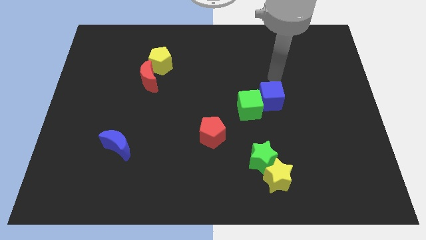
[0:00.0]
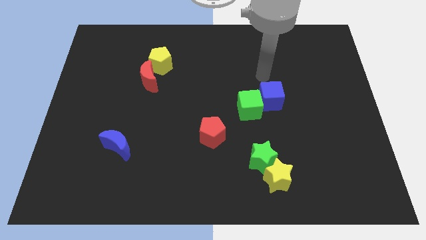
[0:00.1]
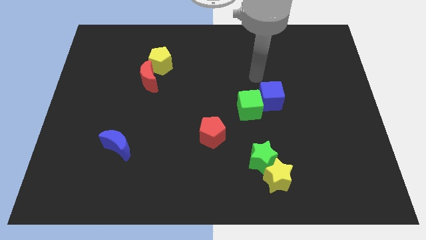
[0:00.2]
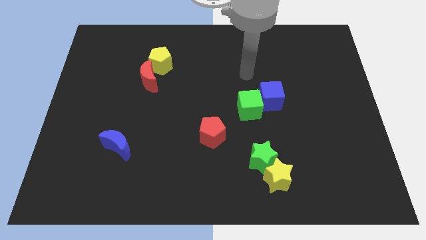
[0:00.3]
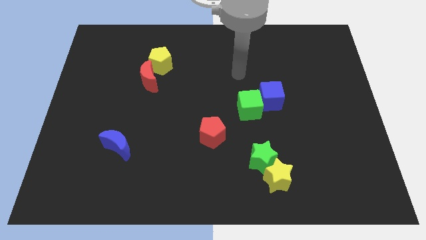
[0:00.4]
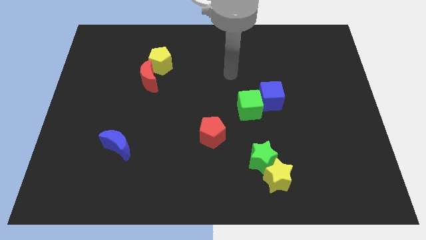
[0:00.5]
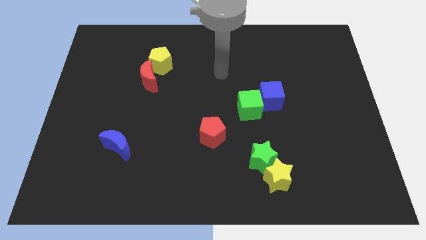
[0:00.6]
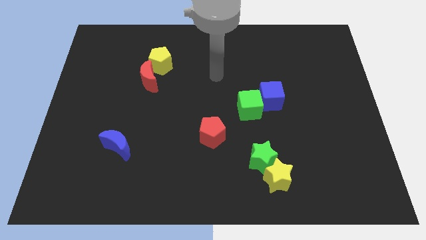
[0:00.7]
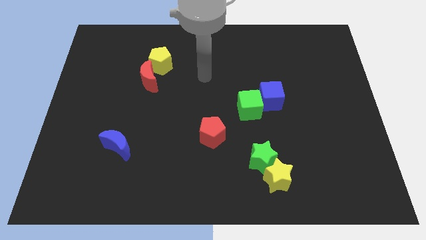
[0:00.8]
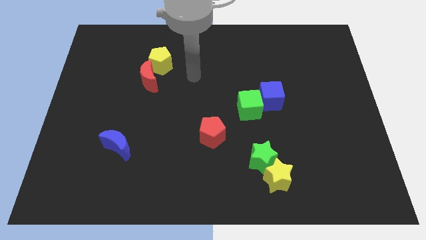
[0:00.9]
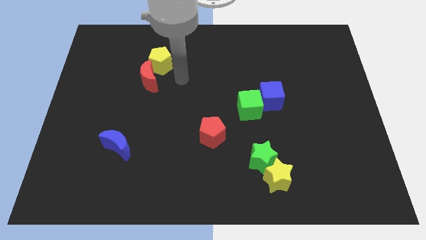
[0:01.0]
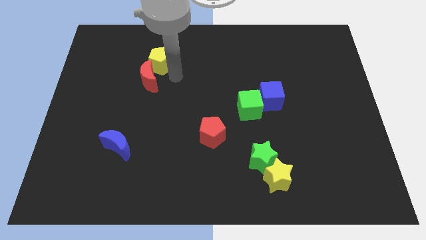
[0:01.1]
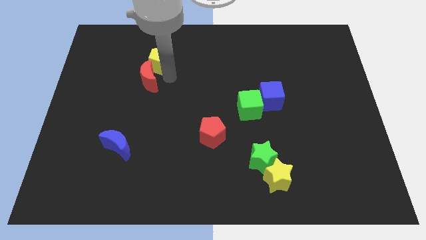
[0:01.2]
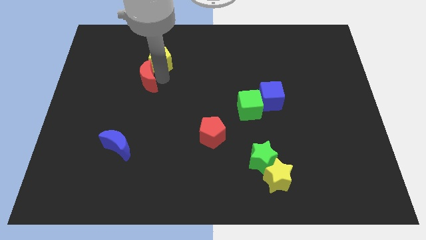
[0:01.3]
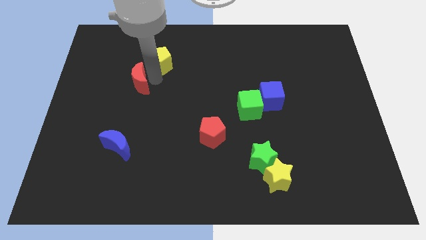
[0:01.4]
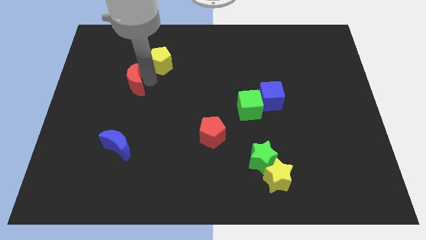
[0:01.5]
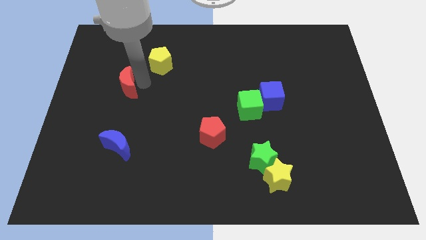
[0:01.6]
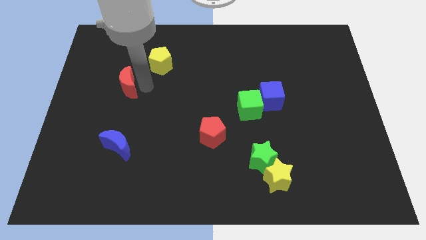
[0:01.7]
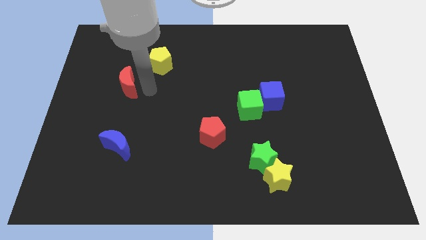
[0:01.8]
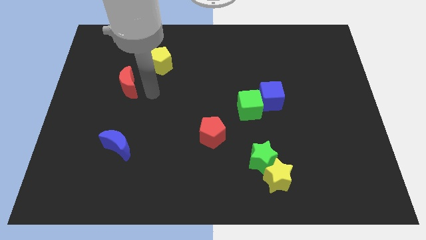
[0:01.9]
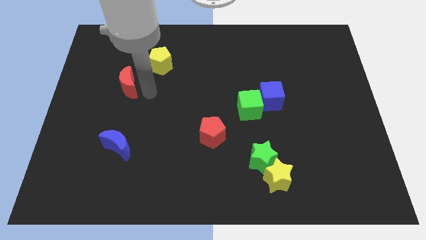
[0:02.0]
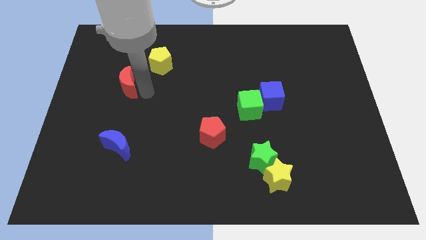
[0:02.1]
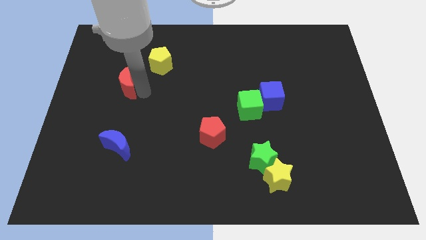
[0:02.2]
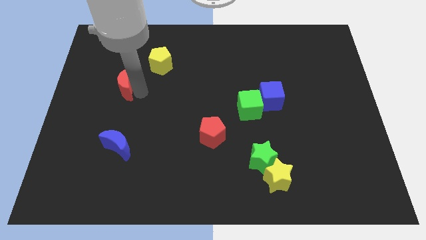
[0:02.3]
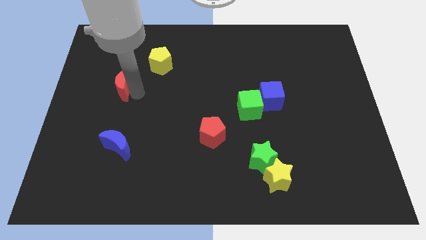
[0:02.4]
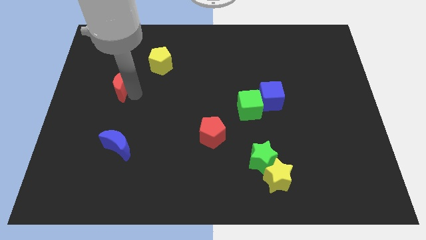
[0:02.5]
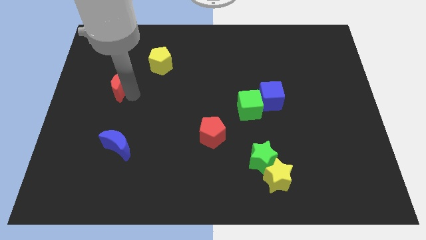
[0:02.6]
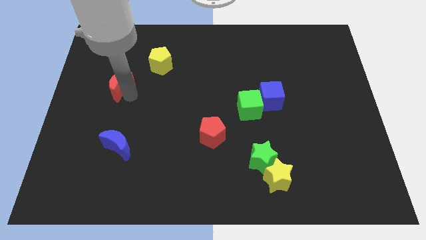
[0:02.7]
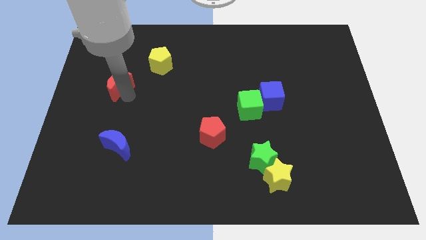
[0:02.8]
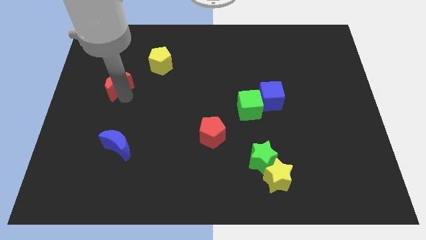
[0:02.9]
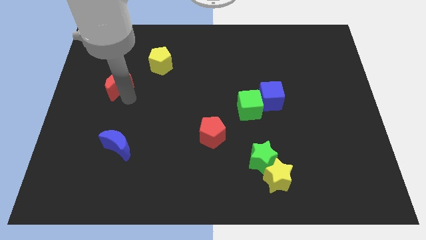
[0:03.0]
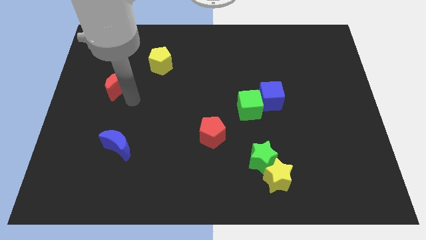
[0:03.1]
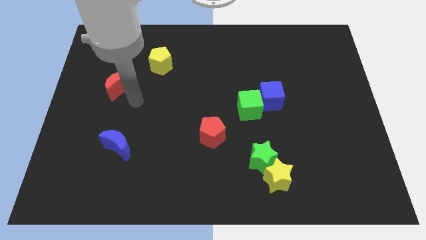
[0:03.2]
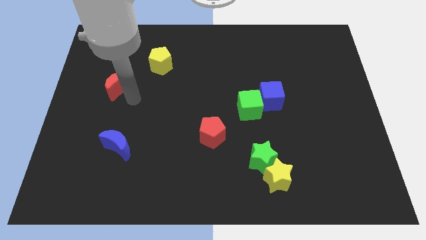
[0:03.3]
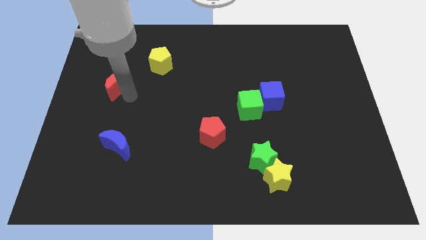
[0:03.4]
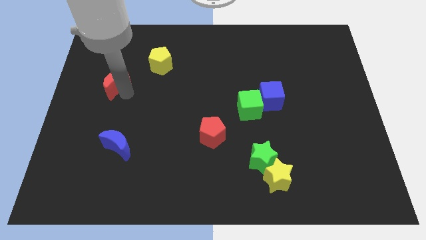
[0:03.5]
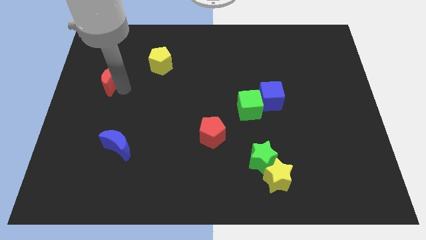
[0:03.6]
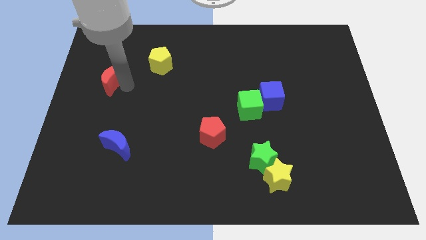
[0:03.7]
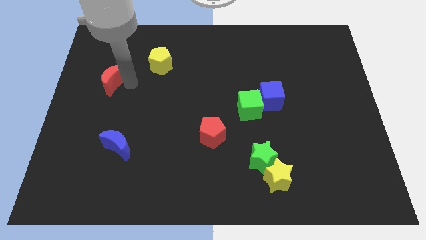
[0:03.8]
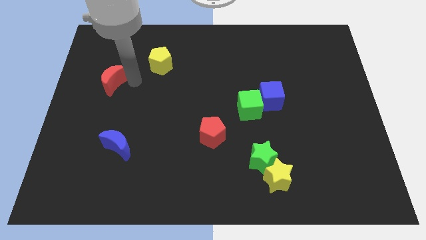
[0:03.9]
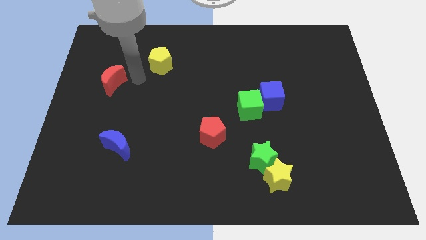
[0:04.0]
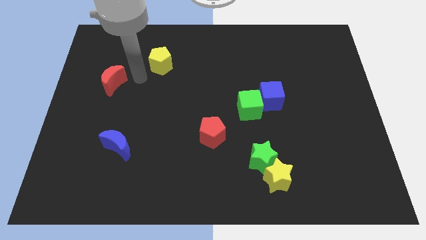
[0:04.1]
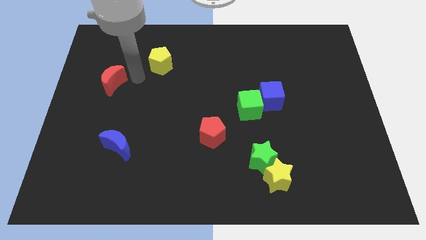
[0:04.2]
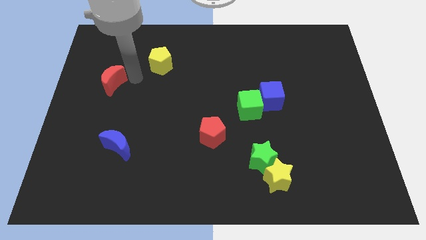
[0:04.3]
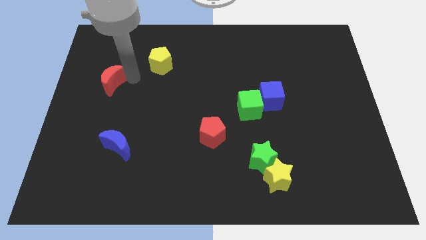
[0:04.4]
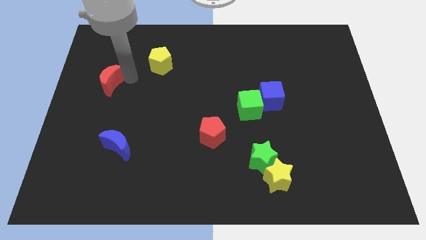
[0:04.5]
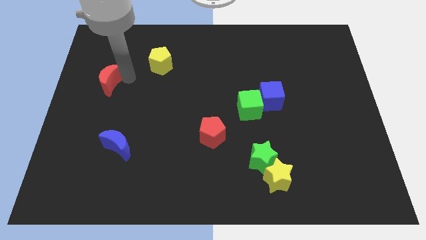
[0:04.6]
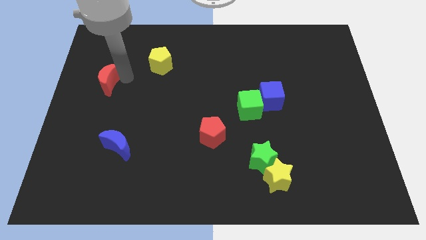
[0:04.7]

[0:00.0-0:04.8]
push the red moon to the left side of the board

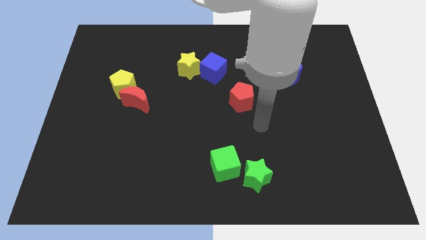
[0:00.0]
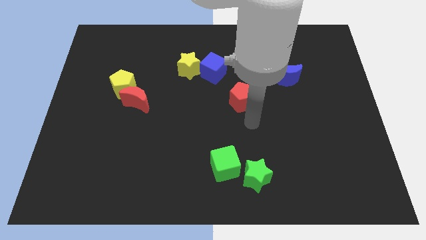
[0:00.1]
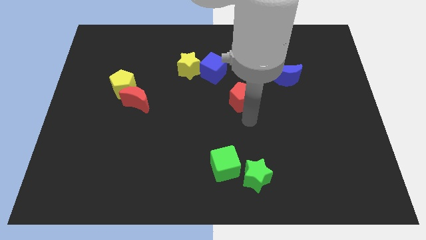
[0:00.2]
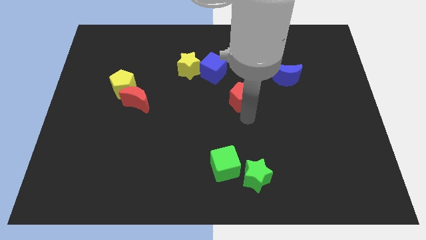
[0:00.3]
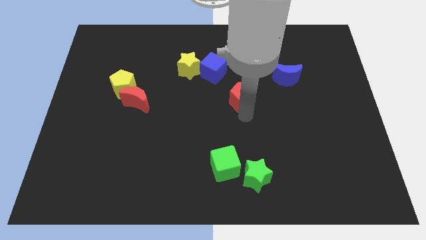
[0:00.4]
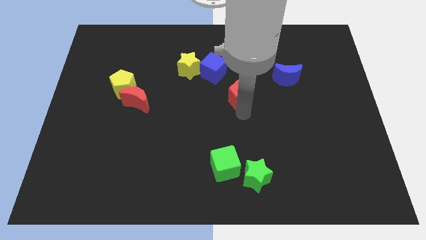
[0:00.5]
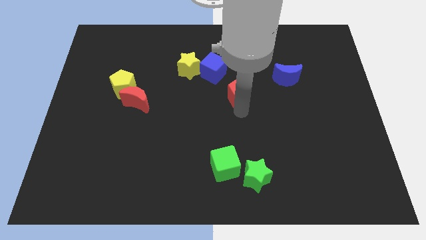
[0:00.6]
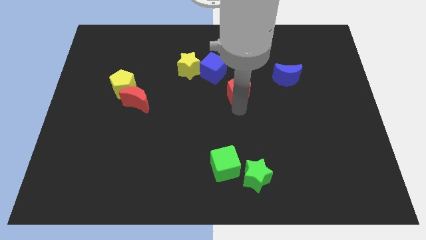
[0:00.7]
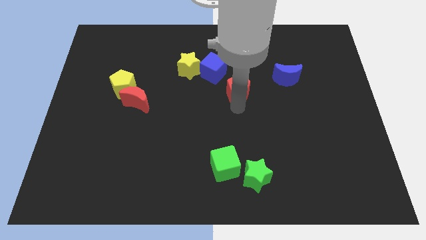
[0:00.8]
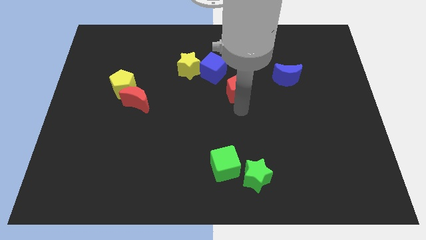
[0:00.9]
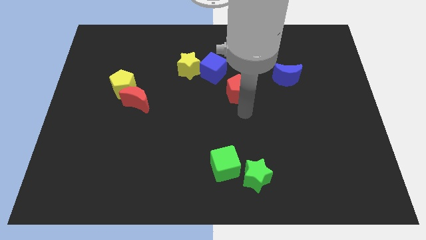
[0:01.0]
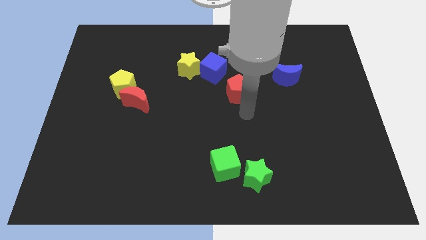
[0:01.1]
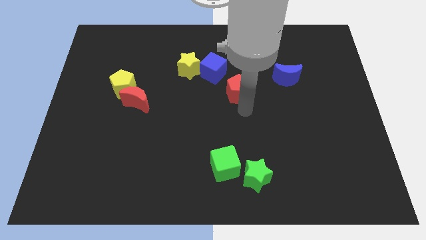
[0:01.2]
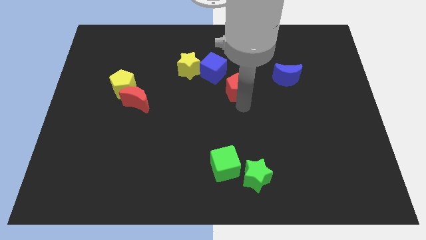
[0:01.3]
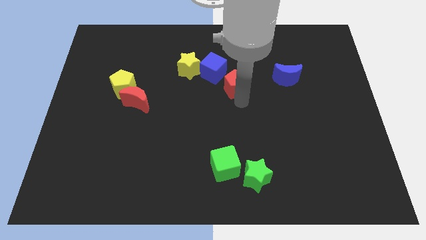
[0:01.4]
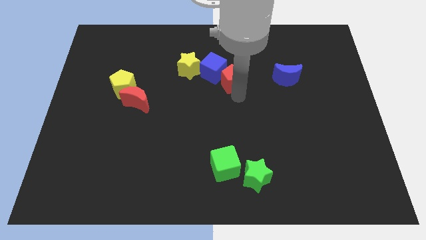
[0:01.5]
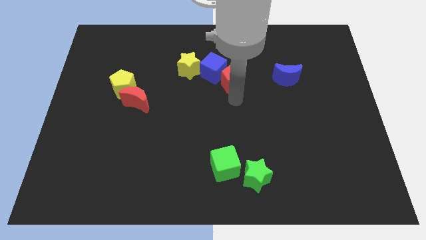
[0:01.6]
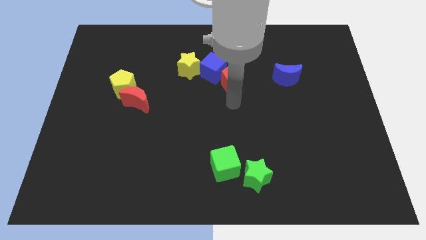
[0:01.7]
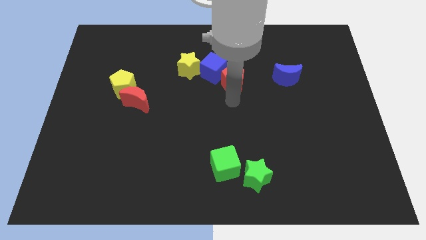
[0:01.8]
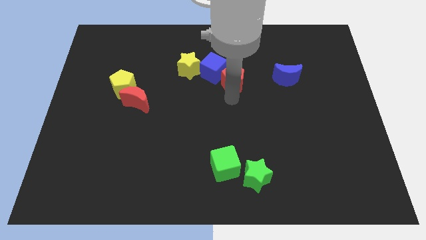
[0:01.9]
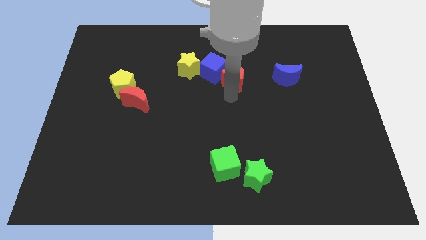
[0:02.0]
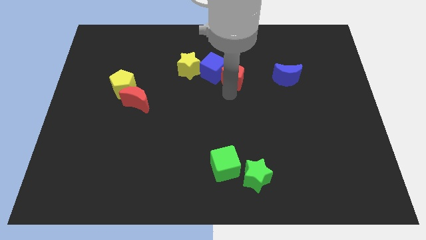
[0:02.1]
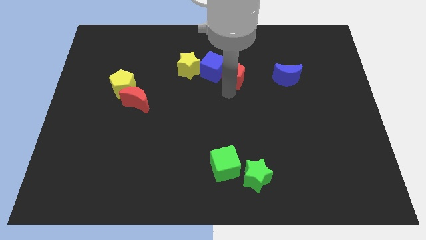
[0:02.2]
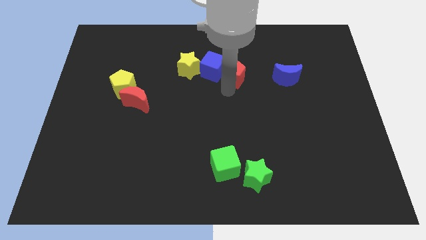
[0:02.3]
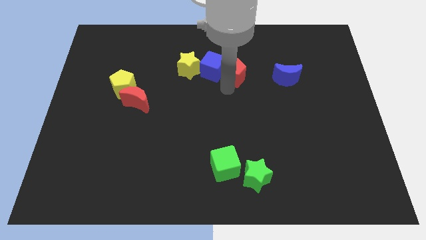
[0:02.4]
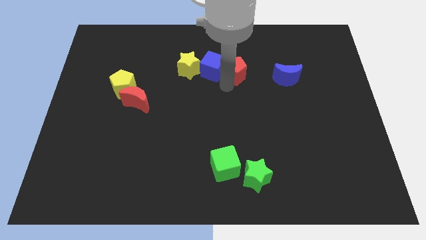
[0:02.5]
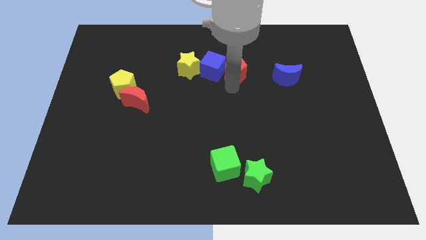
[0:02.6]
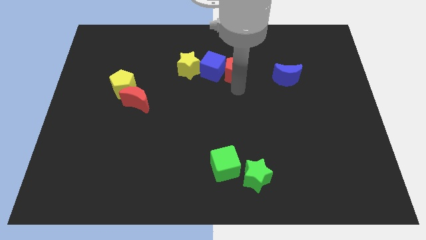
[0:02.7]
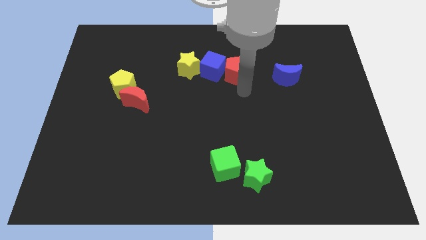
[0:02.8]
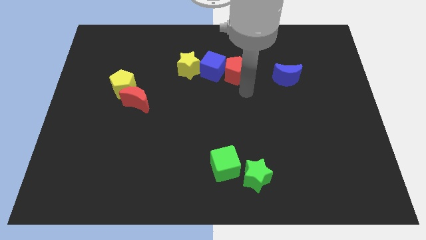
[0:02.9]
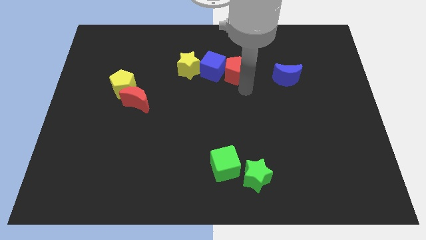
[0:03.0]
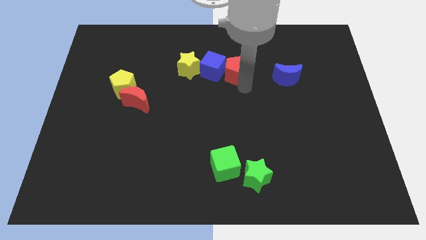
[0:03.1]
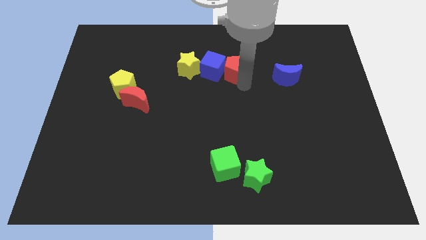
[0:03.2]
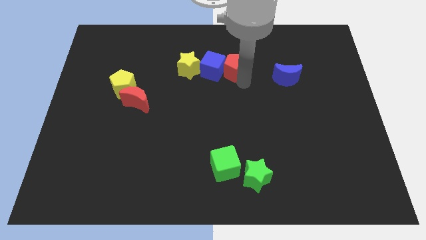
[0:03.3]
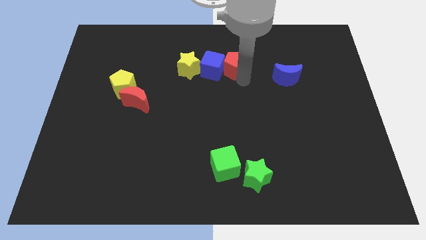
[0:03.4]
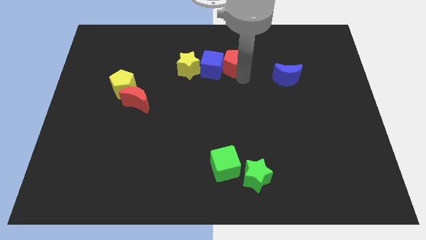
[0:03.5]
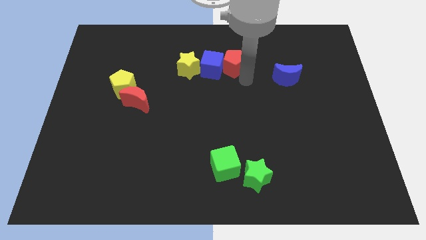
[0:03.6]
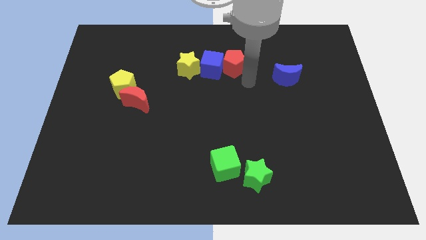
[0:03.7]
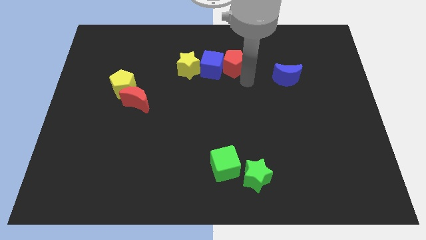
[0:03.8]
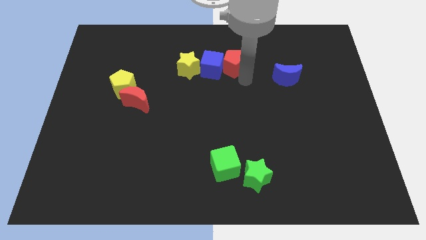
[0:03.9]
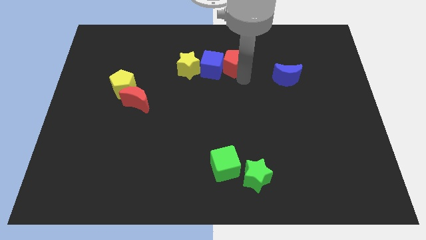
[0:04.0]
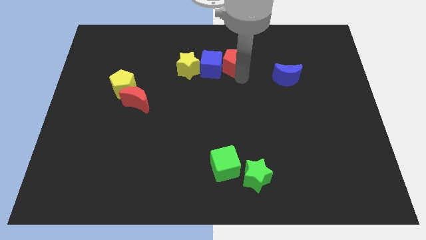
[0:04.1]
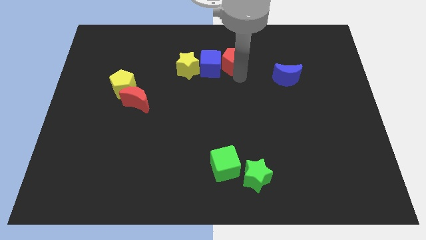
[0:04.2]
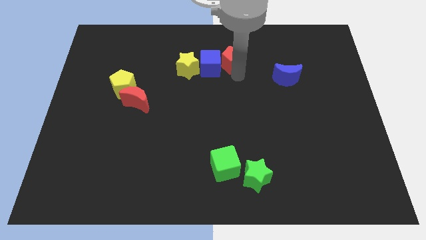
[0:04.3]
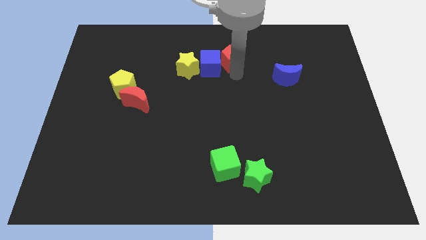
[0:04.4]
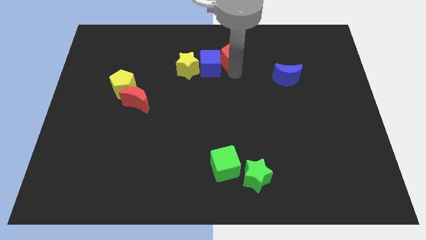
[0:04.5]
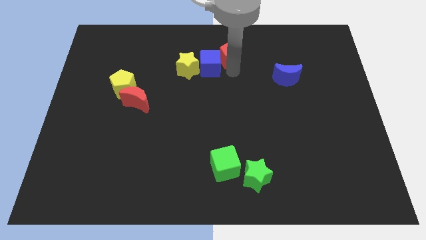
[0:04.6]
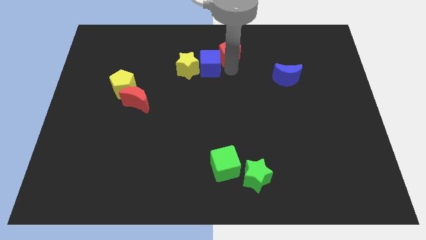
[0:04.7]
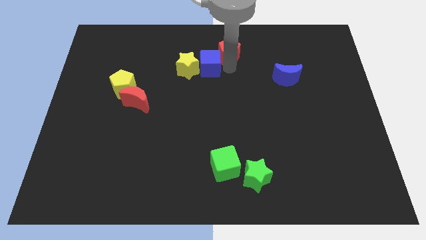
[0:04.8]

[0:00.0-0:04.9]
push the red pentagon to the top
